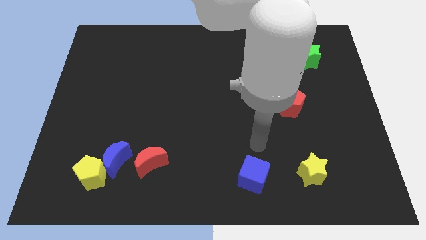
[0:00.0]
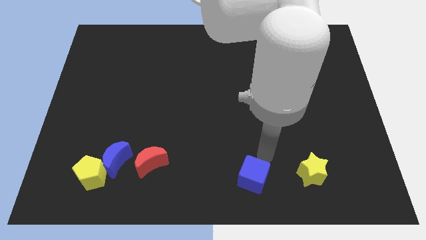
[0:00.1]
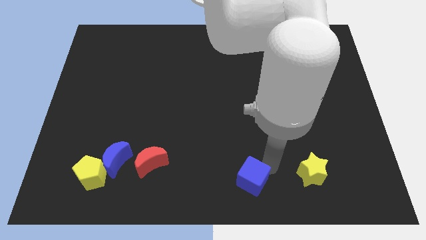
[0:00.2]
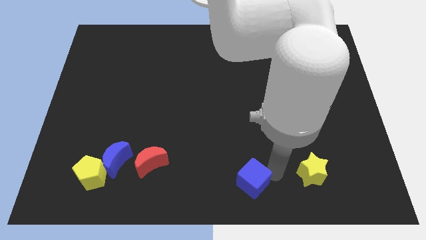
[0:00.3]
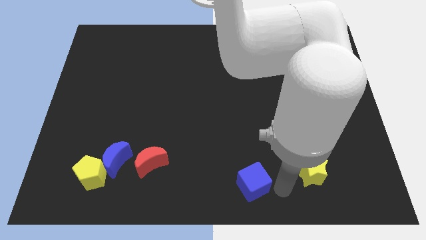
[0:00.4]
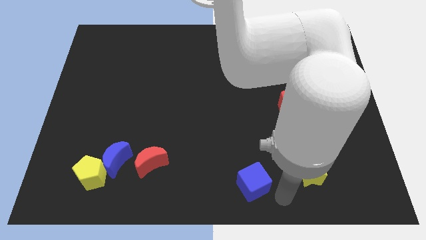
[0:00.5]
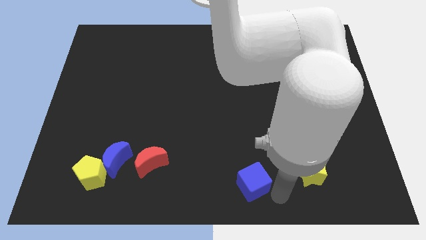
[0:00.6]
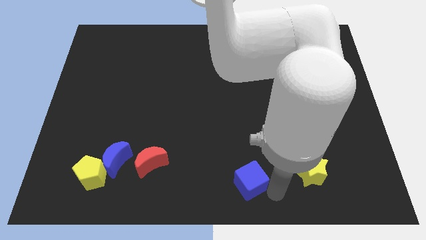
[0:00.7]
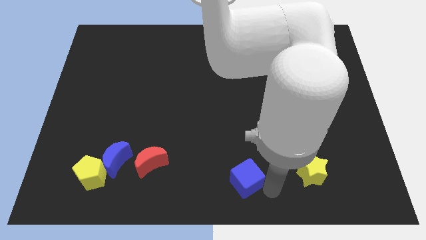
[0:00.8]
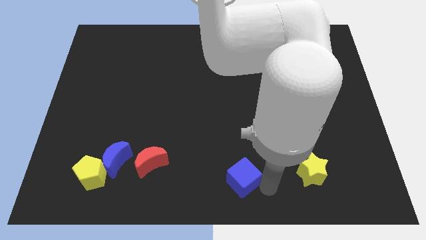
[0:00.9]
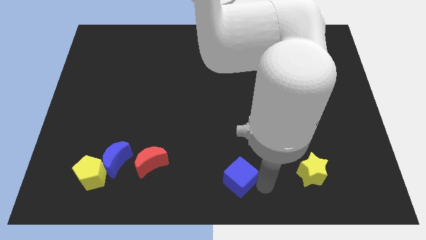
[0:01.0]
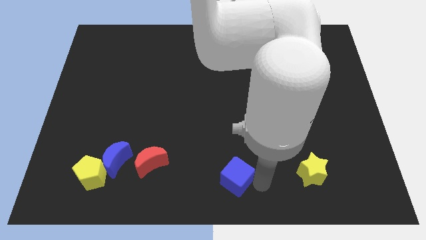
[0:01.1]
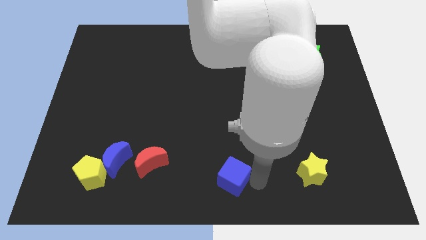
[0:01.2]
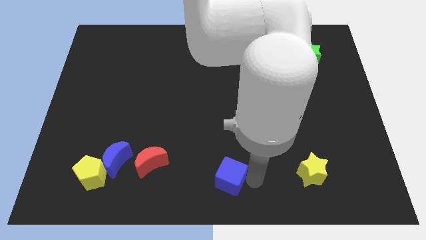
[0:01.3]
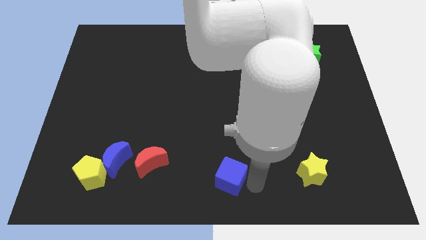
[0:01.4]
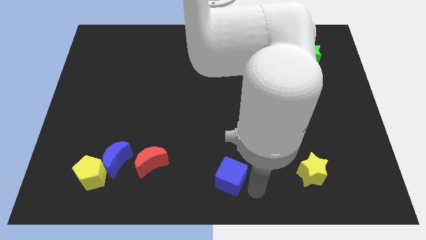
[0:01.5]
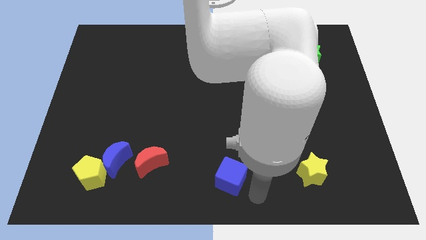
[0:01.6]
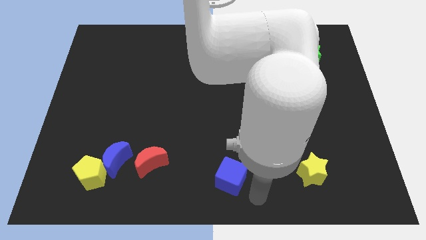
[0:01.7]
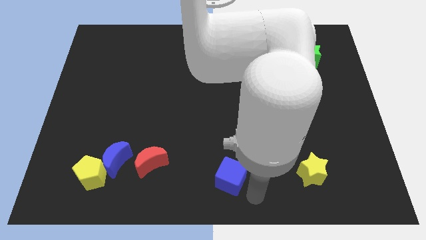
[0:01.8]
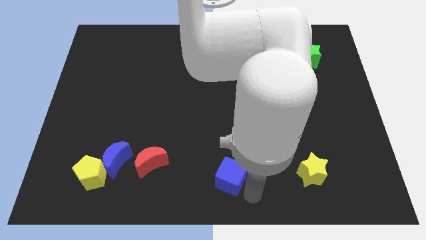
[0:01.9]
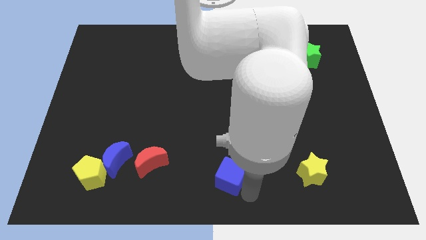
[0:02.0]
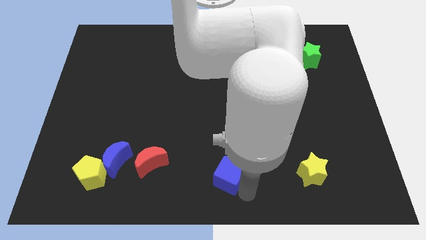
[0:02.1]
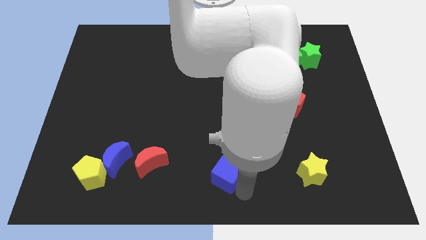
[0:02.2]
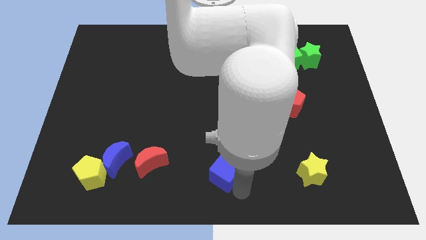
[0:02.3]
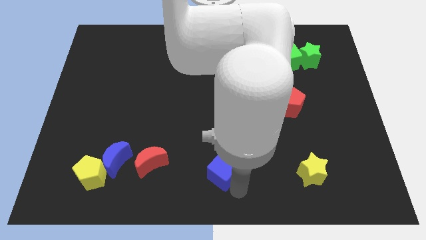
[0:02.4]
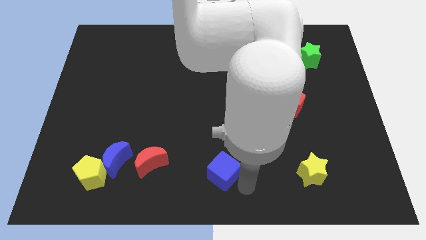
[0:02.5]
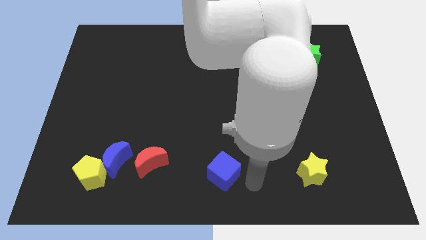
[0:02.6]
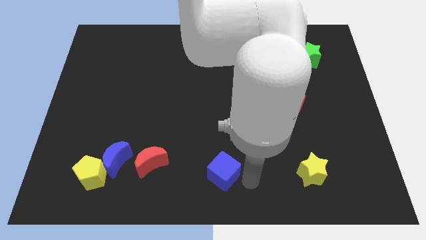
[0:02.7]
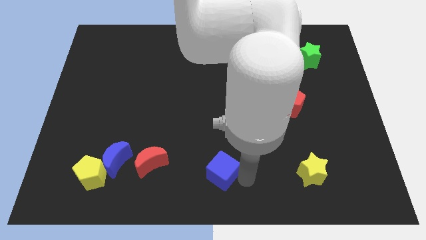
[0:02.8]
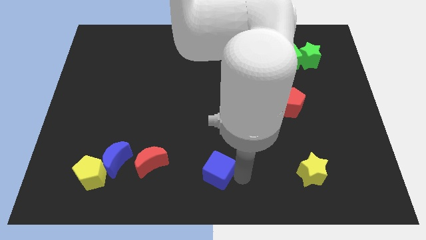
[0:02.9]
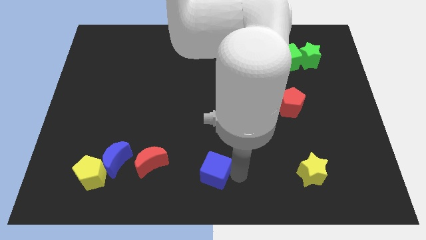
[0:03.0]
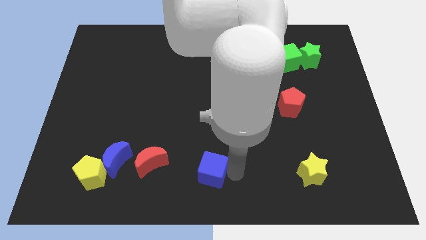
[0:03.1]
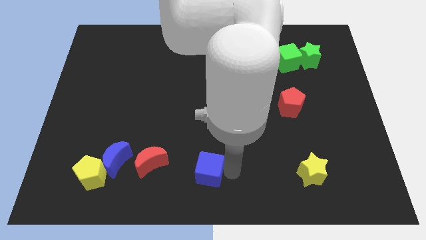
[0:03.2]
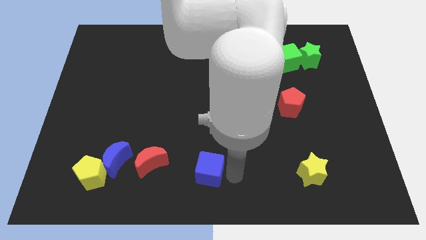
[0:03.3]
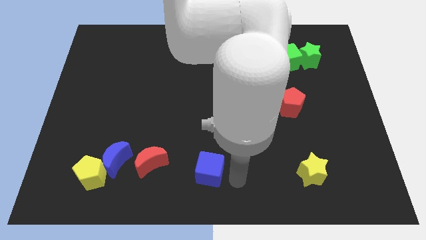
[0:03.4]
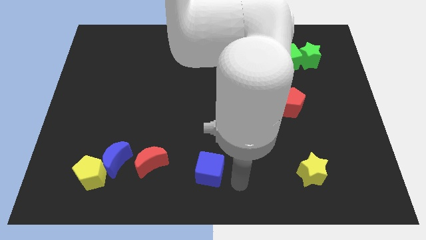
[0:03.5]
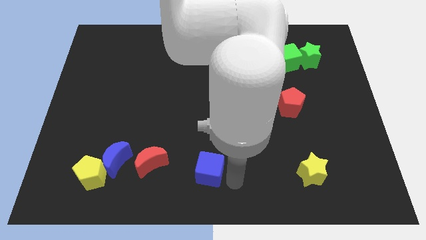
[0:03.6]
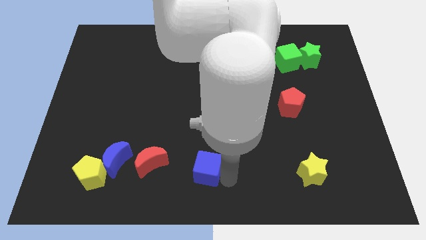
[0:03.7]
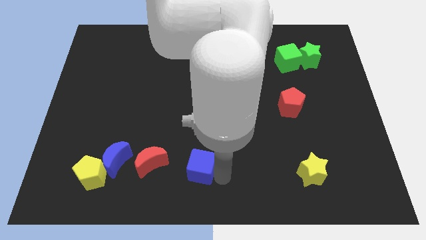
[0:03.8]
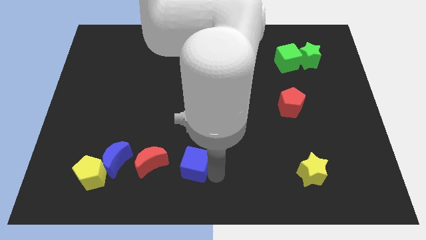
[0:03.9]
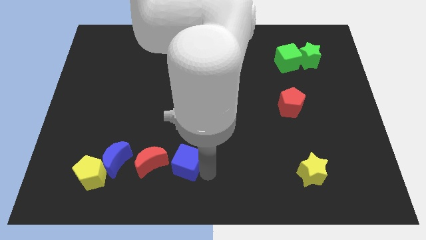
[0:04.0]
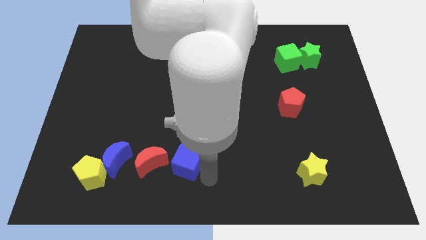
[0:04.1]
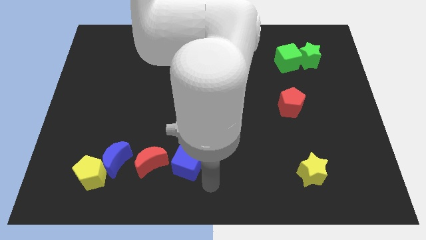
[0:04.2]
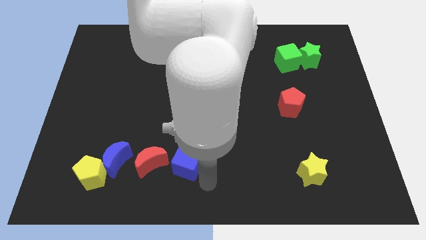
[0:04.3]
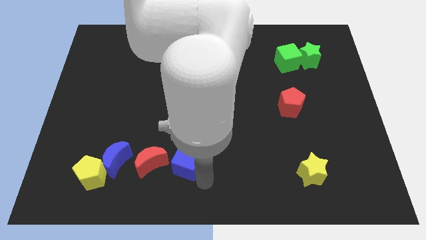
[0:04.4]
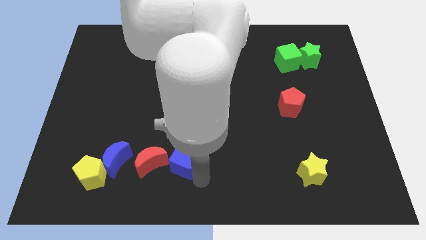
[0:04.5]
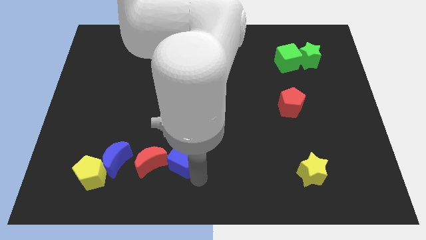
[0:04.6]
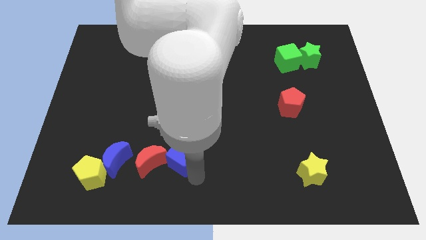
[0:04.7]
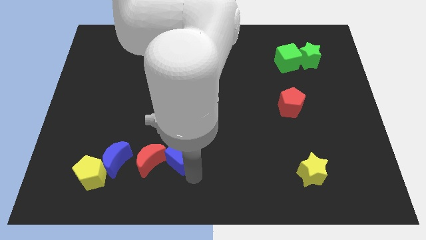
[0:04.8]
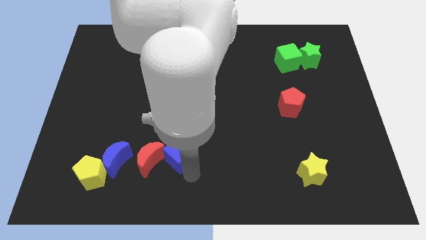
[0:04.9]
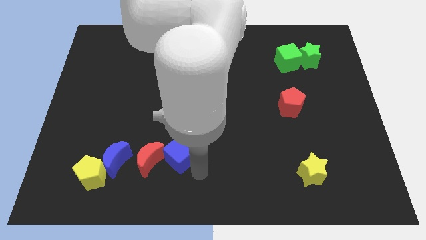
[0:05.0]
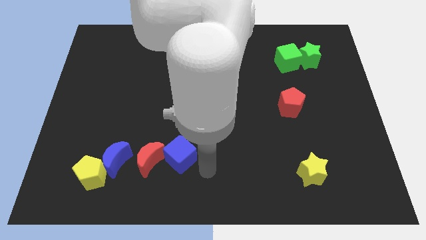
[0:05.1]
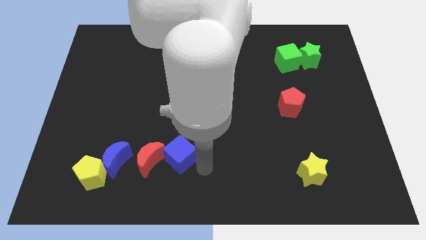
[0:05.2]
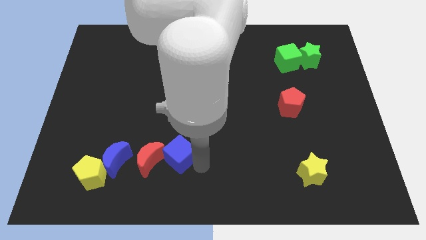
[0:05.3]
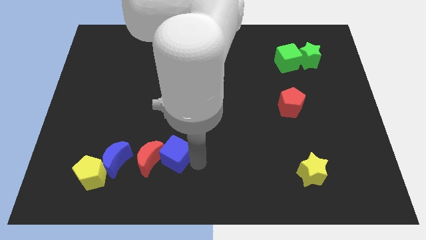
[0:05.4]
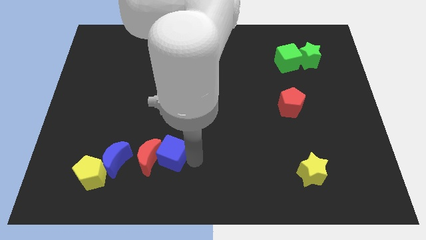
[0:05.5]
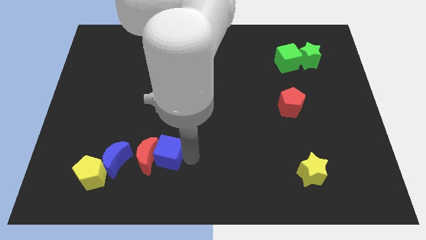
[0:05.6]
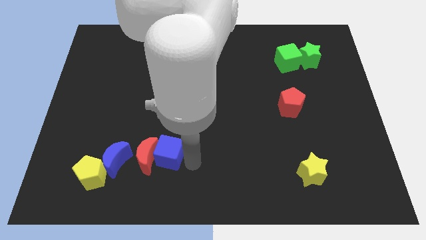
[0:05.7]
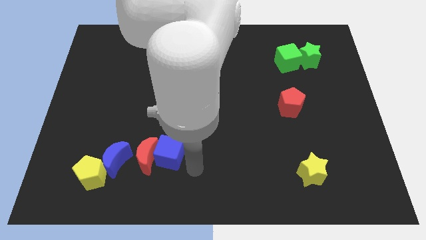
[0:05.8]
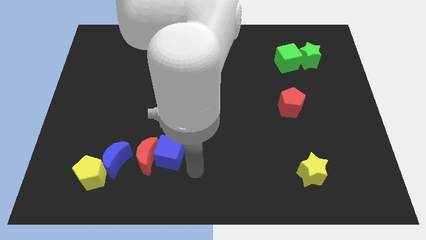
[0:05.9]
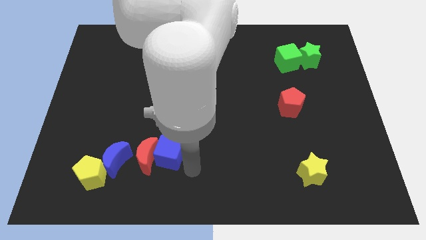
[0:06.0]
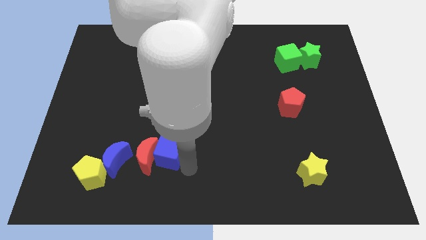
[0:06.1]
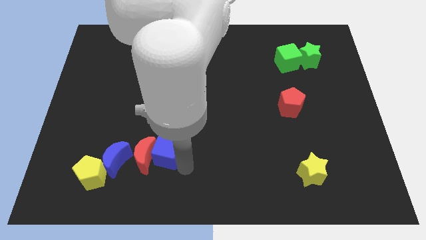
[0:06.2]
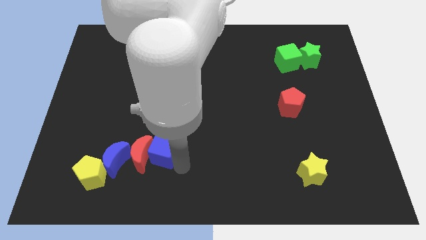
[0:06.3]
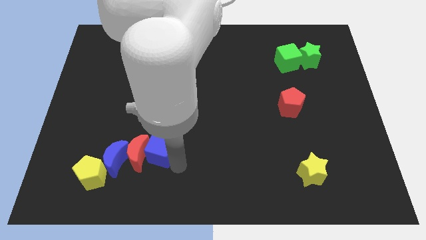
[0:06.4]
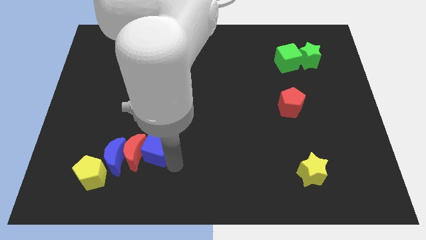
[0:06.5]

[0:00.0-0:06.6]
slide the blue cube diagonally up and to the right of the blue moon

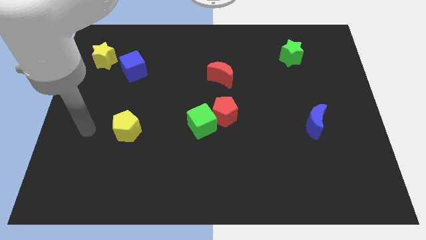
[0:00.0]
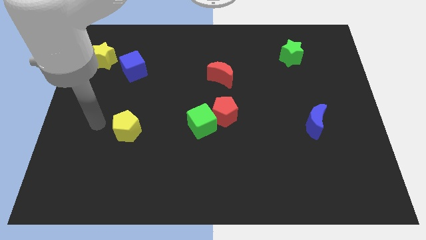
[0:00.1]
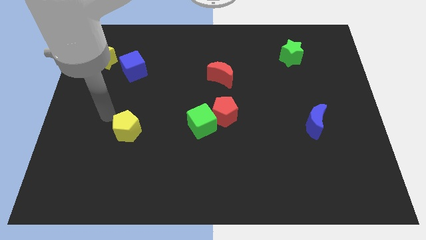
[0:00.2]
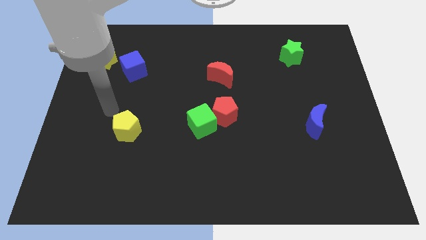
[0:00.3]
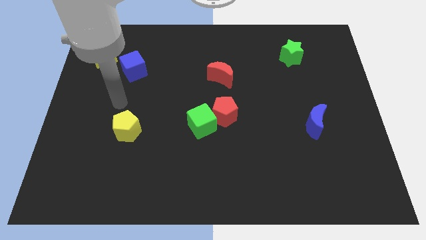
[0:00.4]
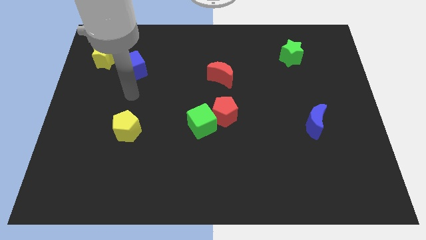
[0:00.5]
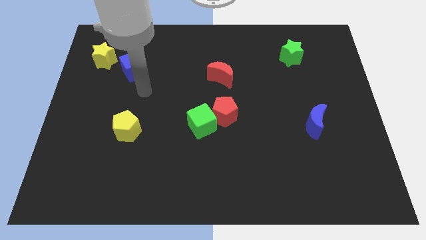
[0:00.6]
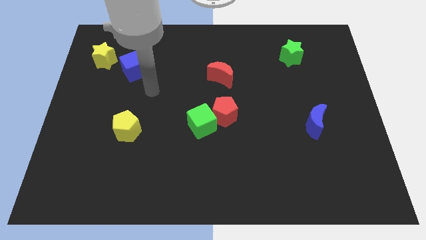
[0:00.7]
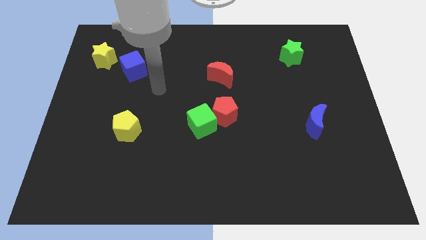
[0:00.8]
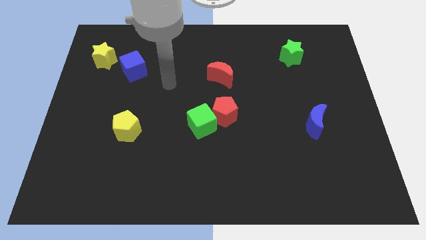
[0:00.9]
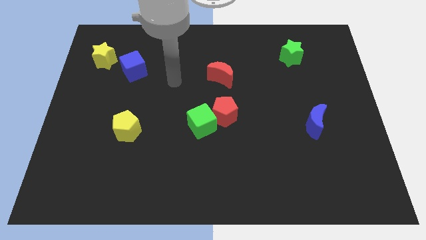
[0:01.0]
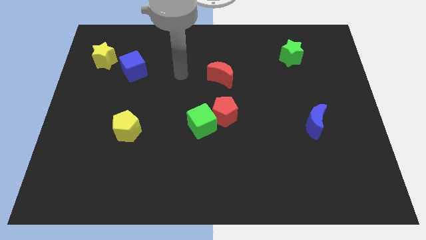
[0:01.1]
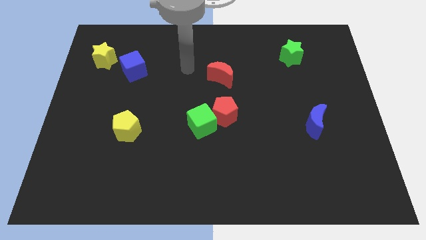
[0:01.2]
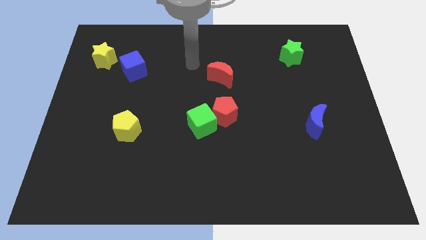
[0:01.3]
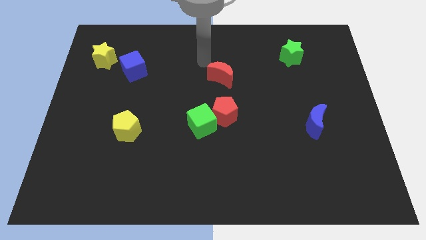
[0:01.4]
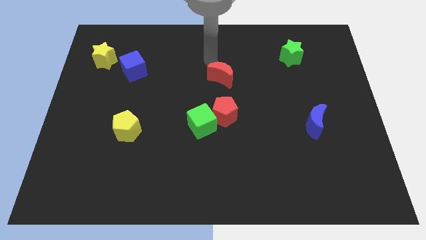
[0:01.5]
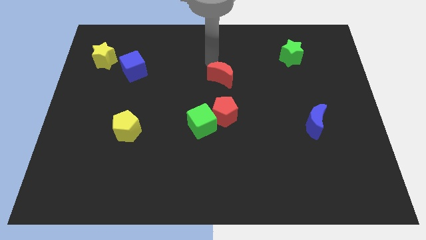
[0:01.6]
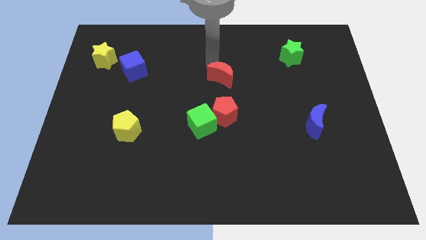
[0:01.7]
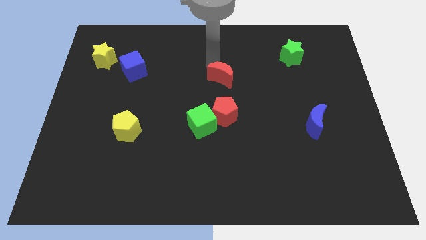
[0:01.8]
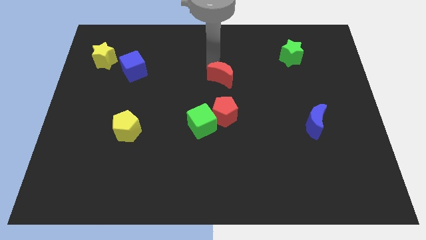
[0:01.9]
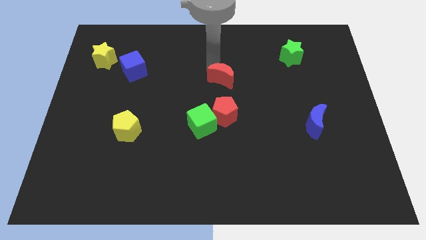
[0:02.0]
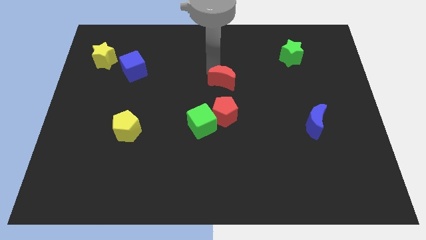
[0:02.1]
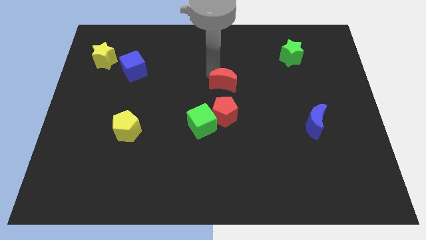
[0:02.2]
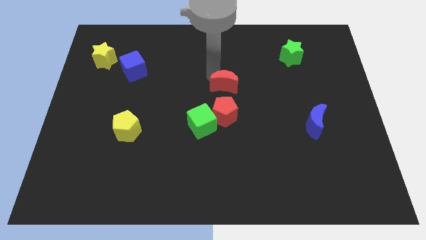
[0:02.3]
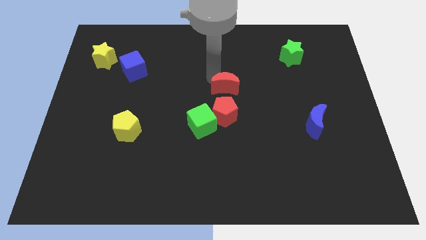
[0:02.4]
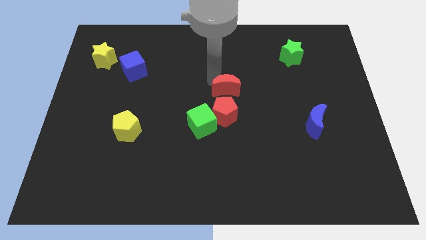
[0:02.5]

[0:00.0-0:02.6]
move the red moon diagonally up and to the right of the green cube
